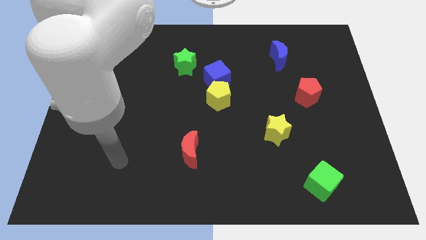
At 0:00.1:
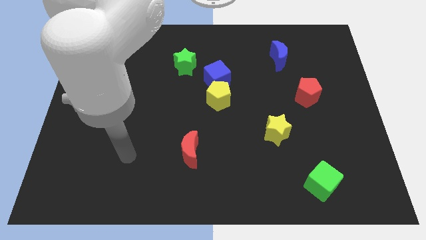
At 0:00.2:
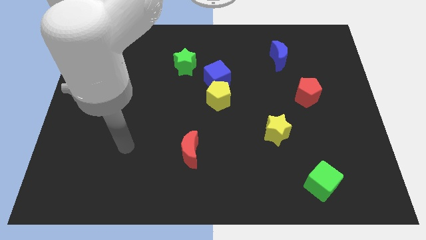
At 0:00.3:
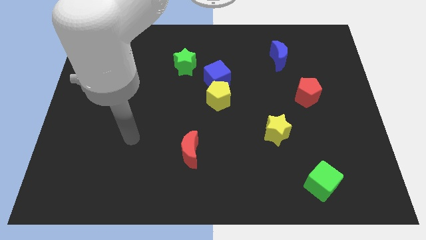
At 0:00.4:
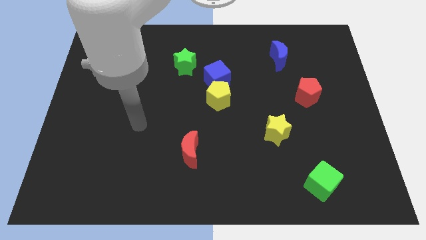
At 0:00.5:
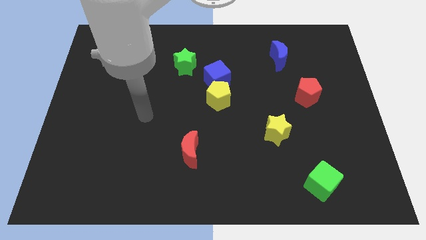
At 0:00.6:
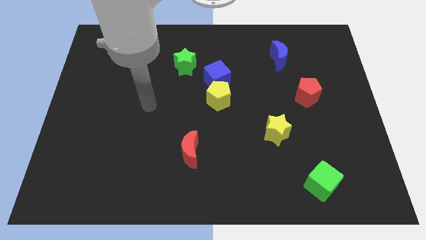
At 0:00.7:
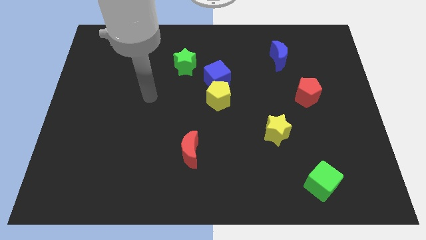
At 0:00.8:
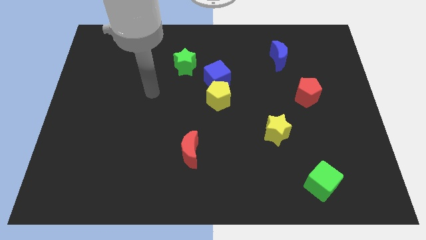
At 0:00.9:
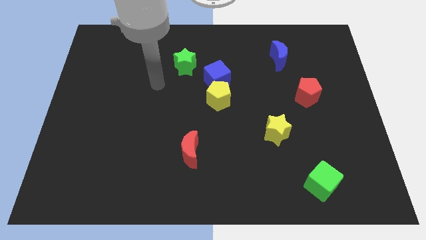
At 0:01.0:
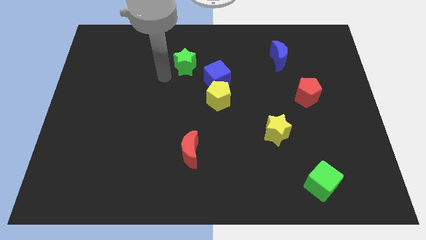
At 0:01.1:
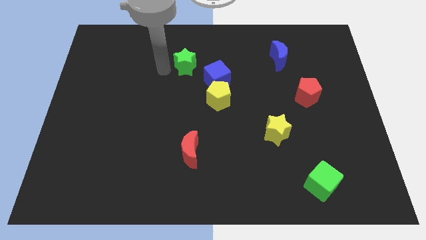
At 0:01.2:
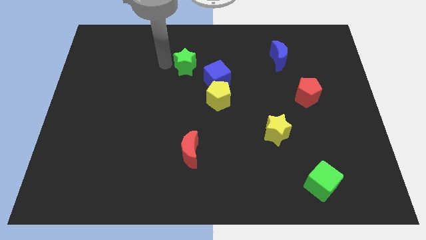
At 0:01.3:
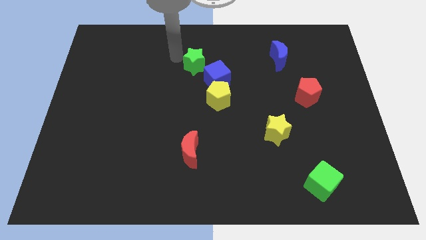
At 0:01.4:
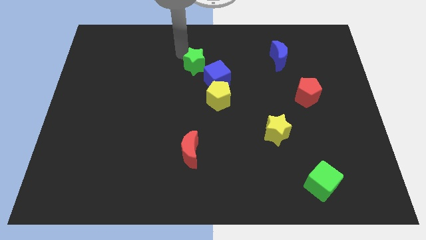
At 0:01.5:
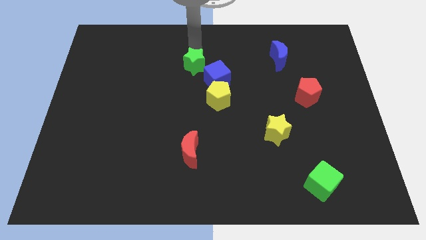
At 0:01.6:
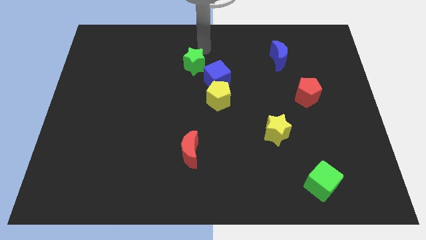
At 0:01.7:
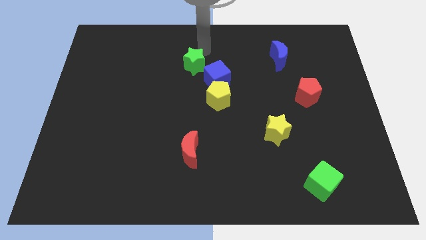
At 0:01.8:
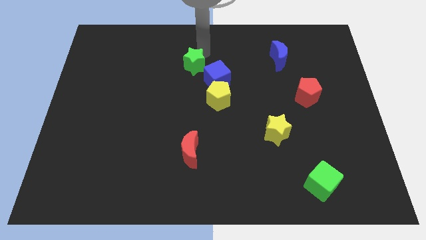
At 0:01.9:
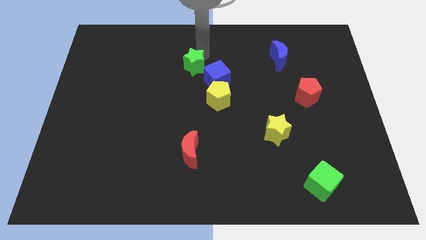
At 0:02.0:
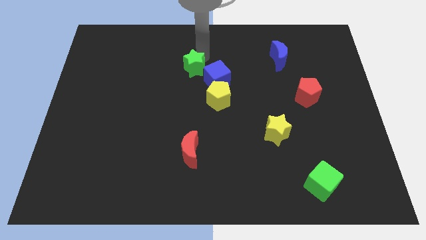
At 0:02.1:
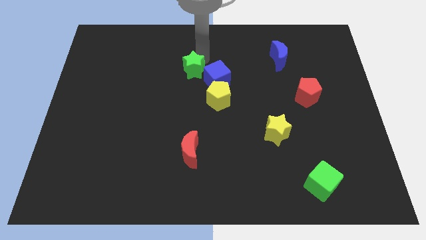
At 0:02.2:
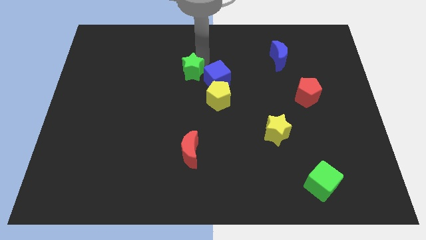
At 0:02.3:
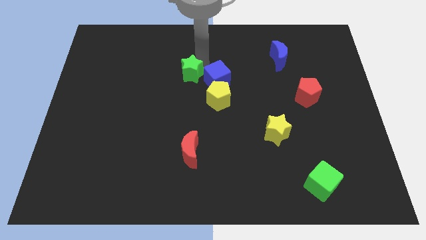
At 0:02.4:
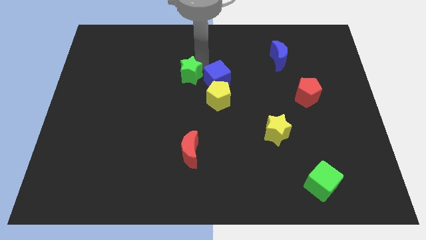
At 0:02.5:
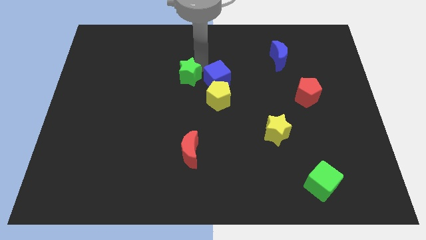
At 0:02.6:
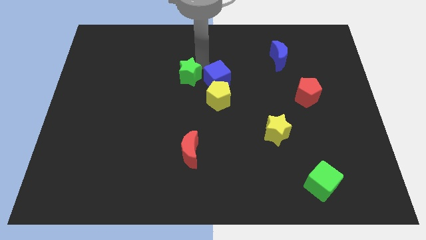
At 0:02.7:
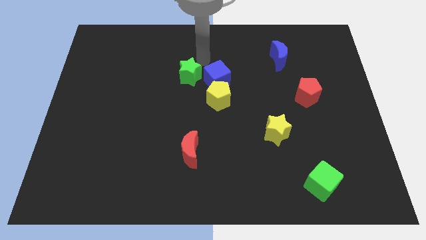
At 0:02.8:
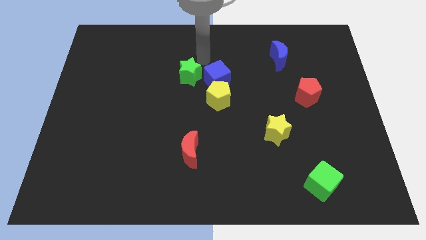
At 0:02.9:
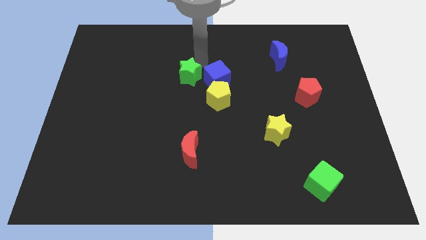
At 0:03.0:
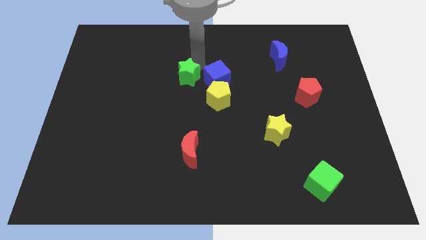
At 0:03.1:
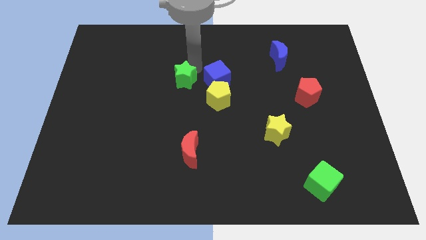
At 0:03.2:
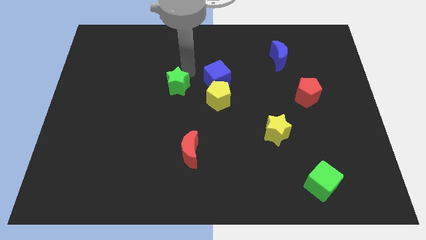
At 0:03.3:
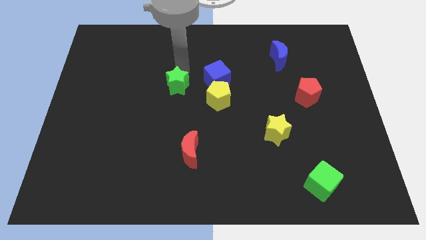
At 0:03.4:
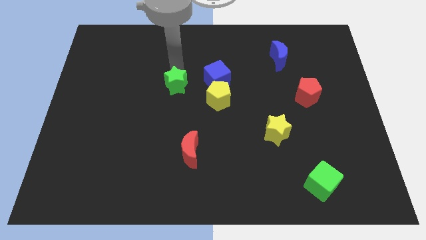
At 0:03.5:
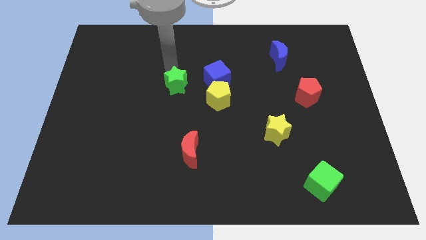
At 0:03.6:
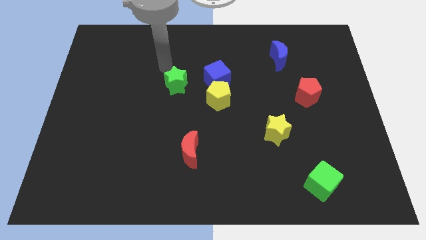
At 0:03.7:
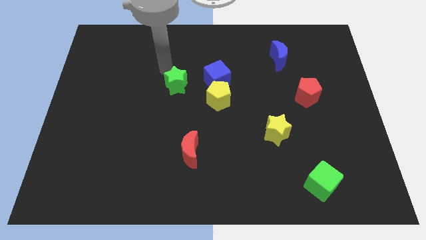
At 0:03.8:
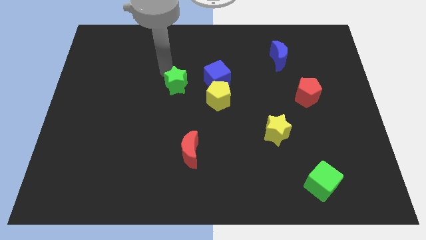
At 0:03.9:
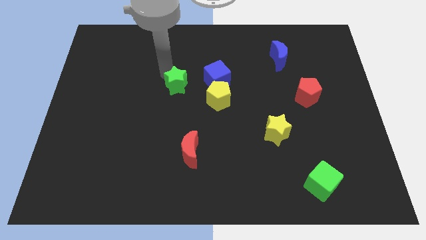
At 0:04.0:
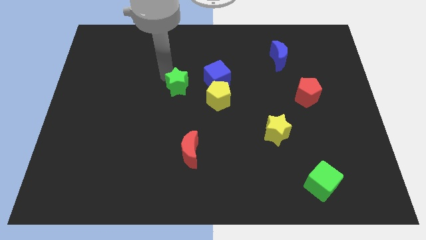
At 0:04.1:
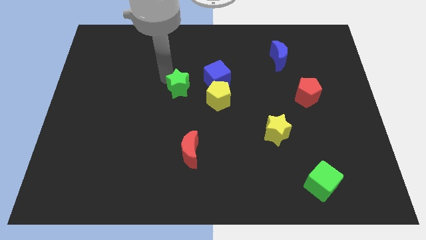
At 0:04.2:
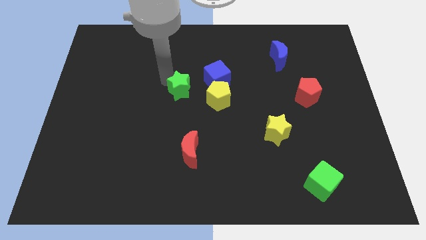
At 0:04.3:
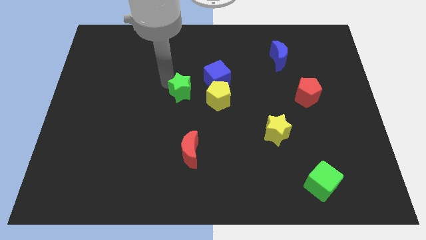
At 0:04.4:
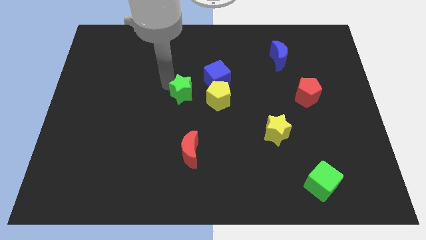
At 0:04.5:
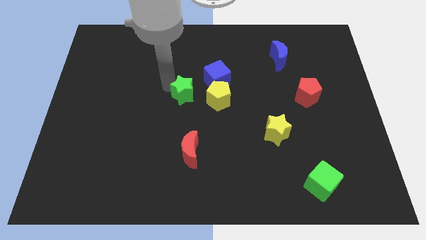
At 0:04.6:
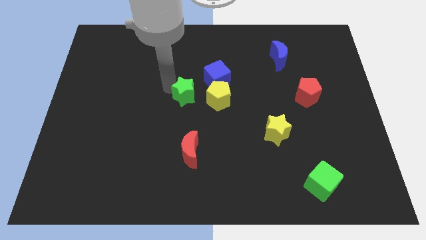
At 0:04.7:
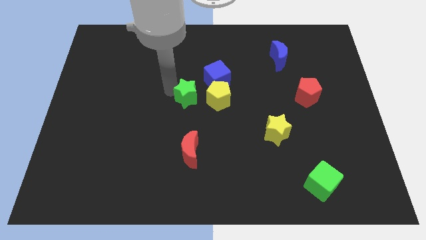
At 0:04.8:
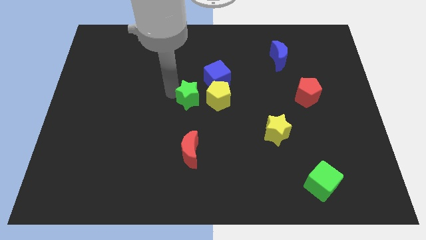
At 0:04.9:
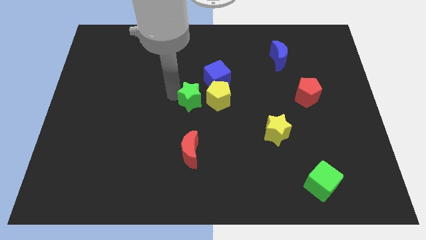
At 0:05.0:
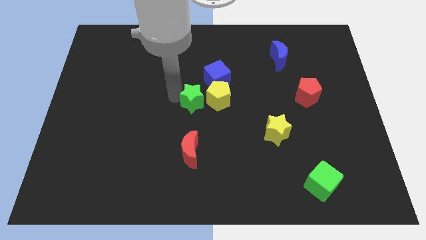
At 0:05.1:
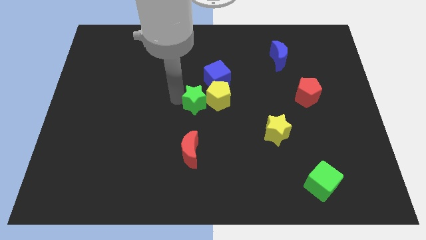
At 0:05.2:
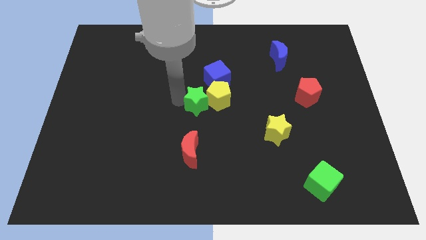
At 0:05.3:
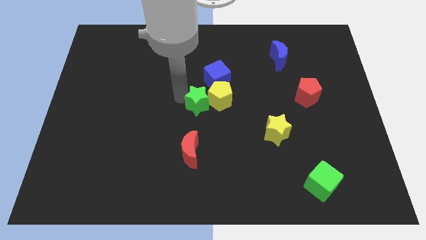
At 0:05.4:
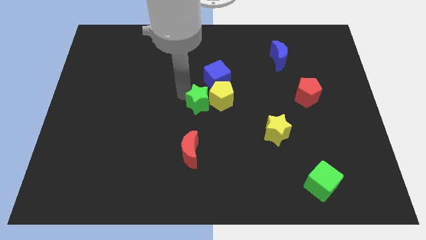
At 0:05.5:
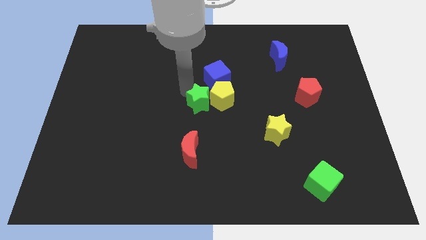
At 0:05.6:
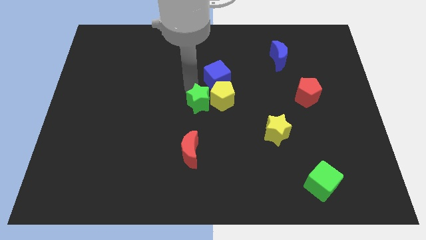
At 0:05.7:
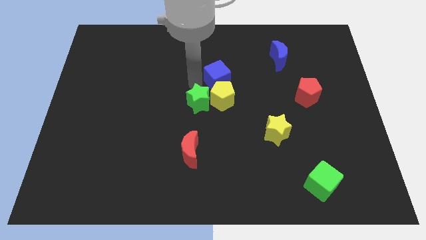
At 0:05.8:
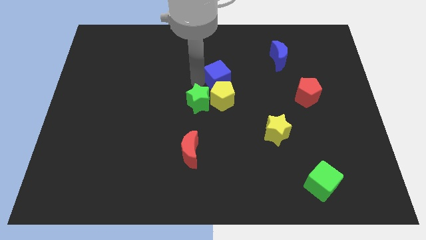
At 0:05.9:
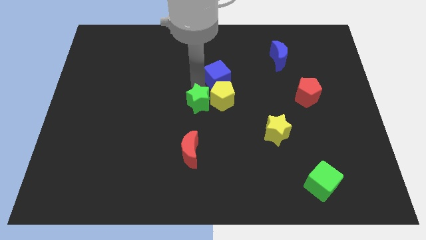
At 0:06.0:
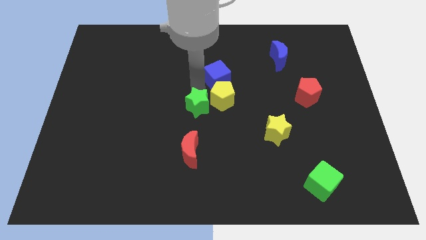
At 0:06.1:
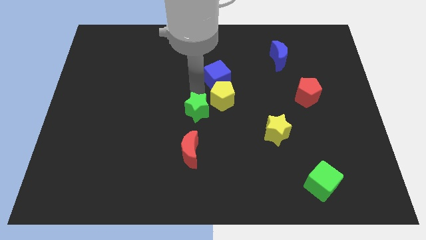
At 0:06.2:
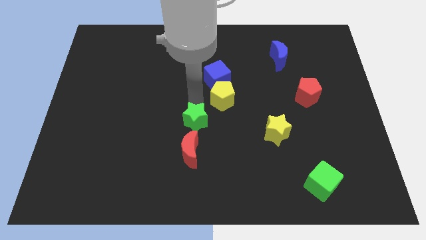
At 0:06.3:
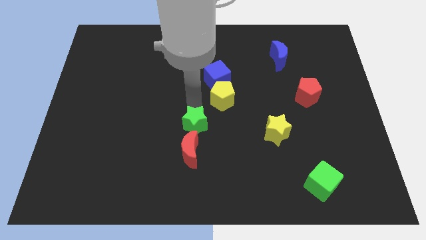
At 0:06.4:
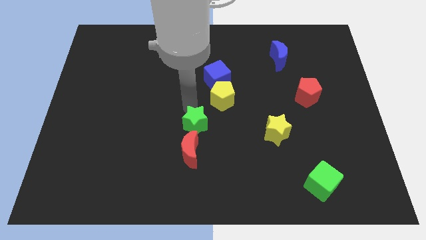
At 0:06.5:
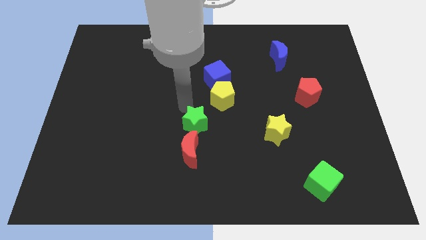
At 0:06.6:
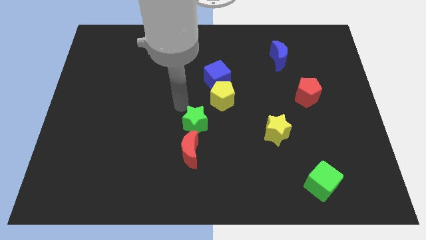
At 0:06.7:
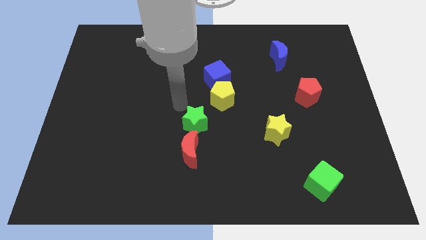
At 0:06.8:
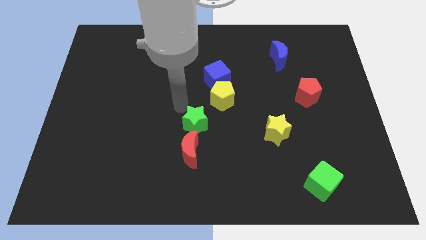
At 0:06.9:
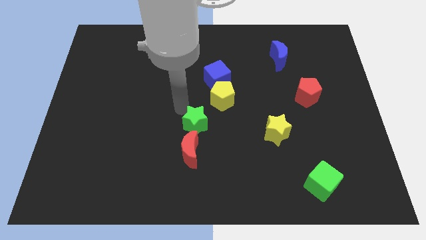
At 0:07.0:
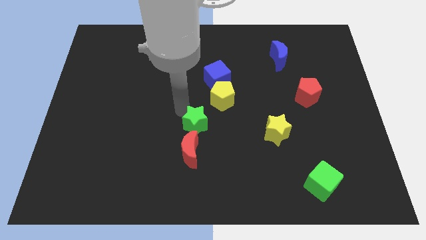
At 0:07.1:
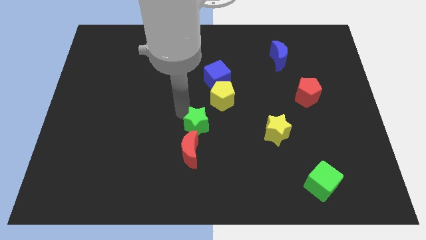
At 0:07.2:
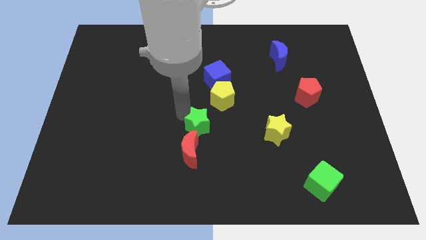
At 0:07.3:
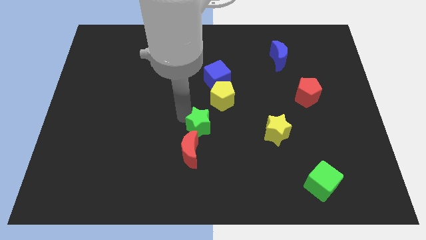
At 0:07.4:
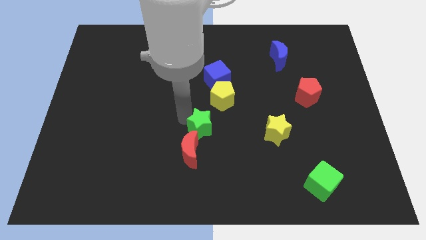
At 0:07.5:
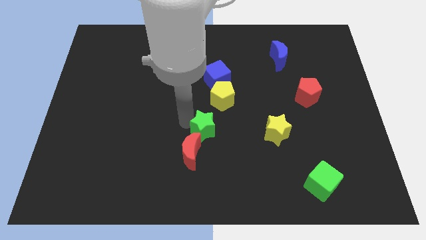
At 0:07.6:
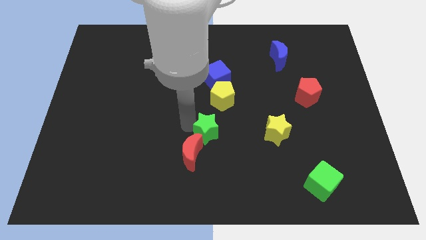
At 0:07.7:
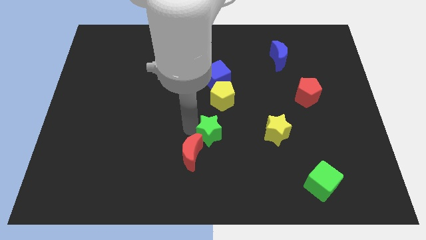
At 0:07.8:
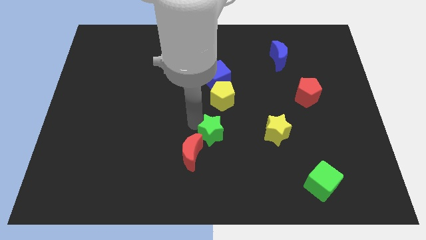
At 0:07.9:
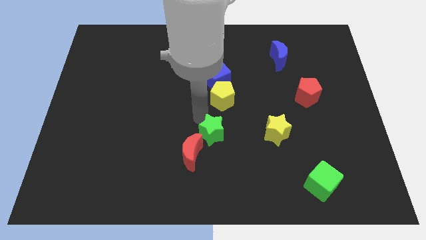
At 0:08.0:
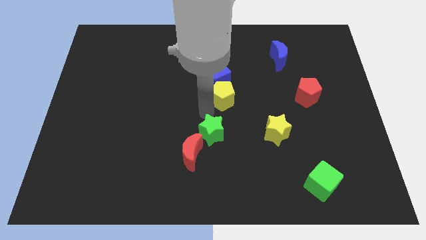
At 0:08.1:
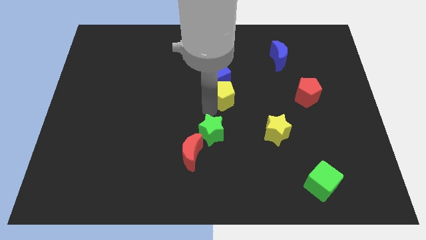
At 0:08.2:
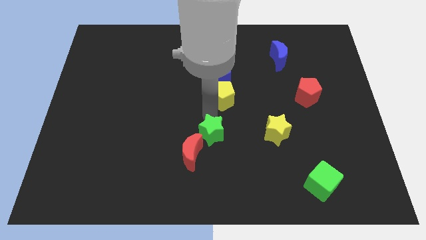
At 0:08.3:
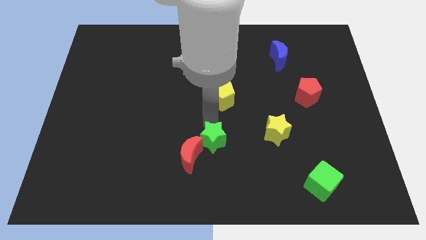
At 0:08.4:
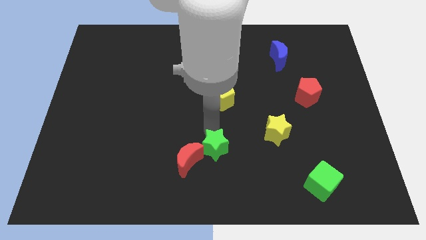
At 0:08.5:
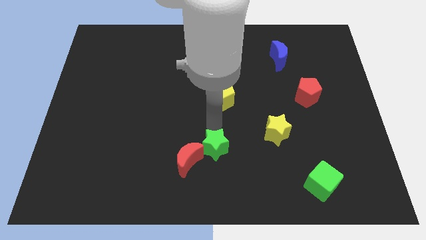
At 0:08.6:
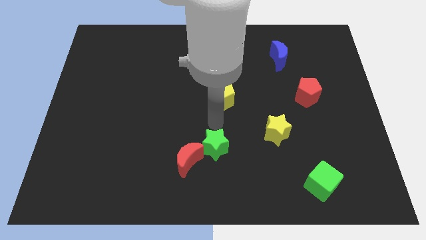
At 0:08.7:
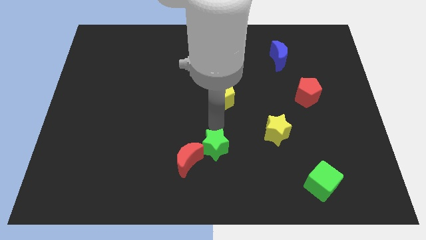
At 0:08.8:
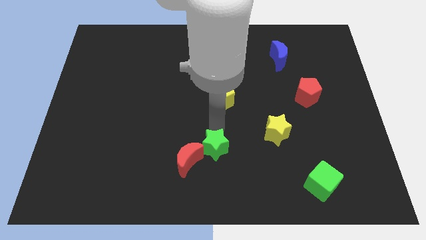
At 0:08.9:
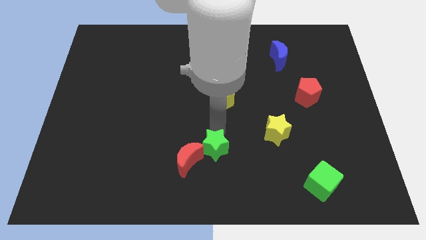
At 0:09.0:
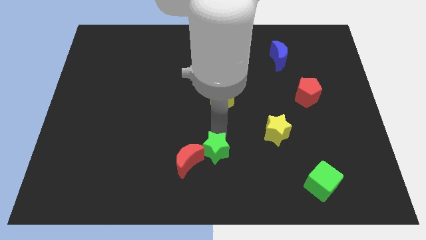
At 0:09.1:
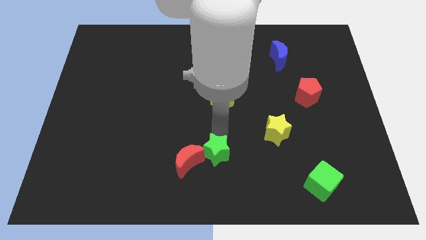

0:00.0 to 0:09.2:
slide the green star to the bottom
